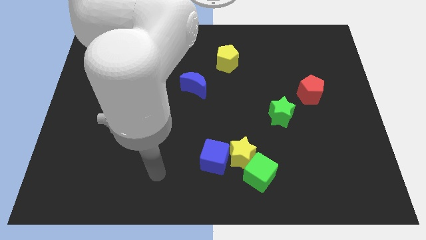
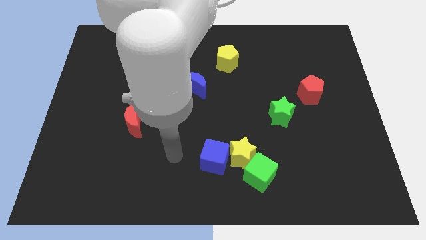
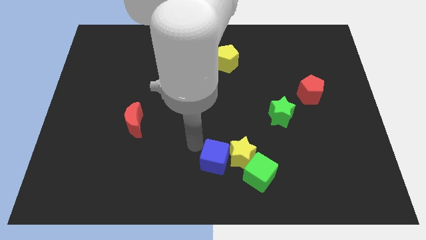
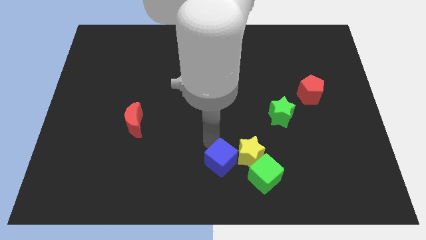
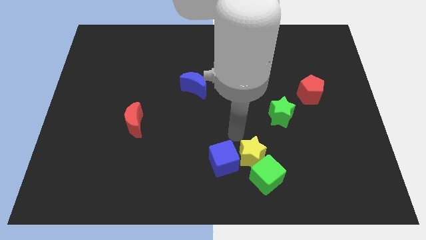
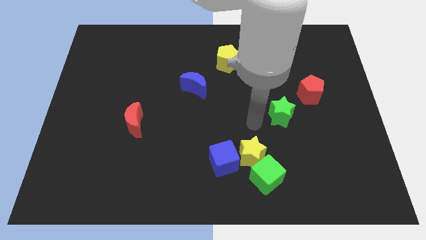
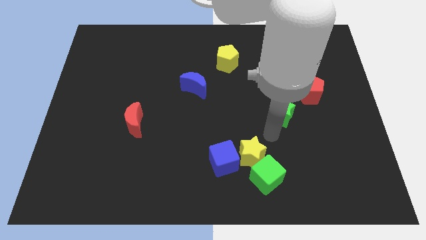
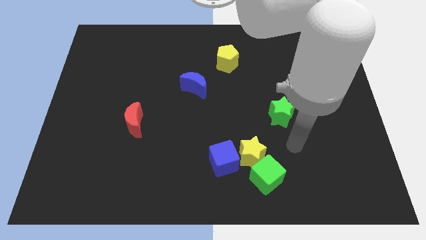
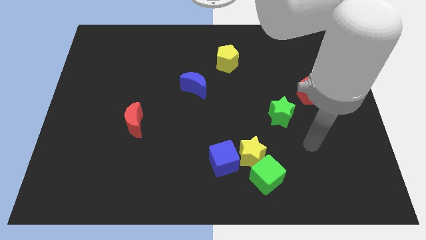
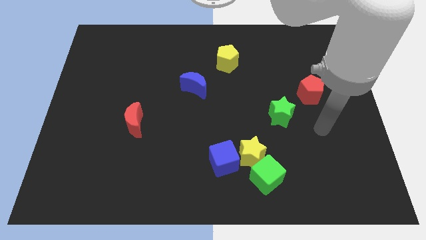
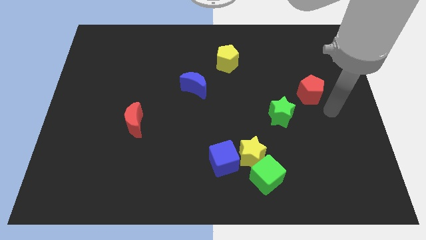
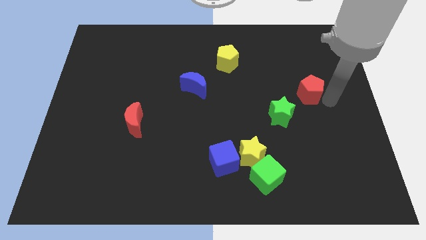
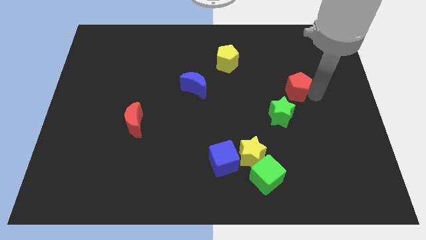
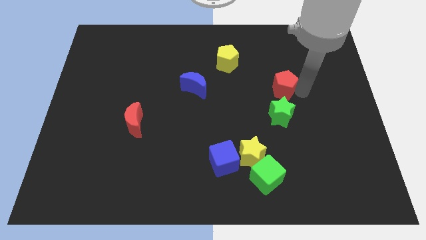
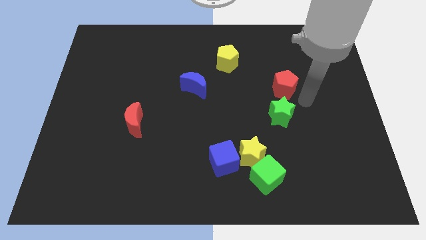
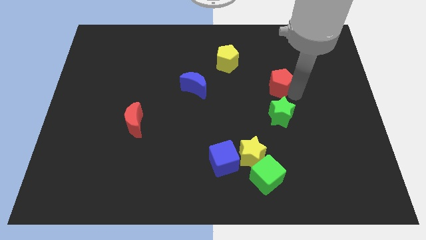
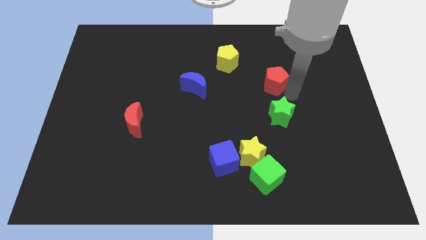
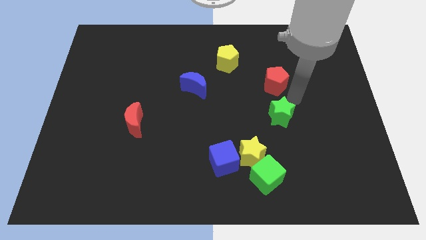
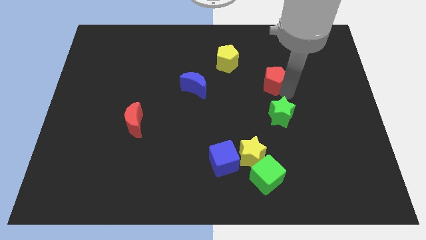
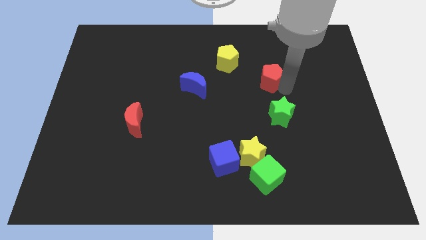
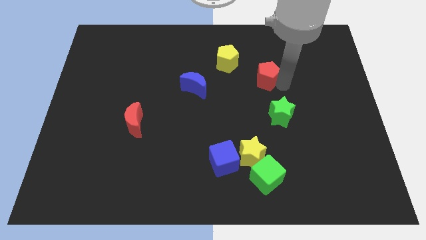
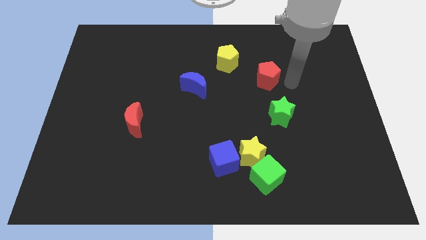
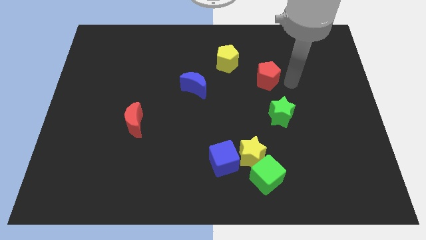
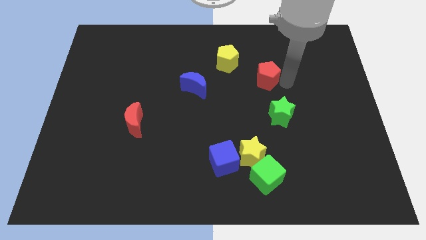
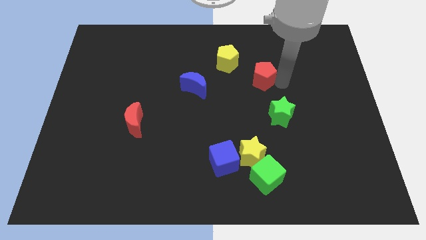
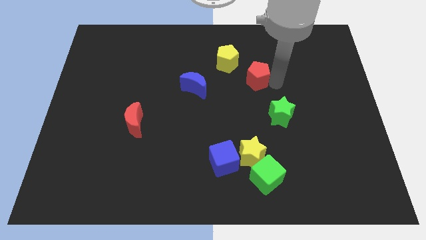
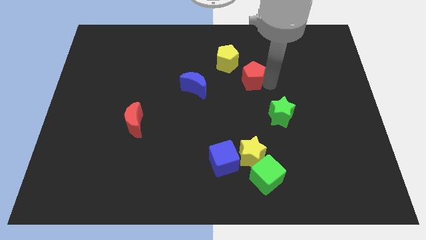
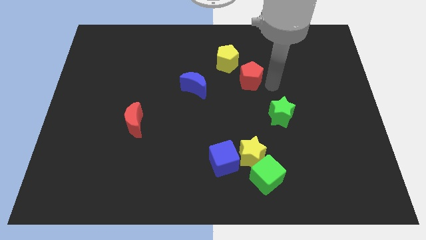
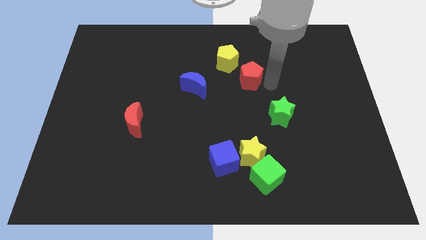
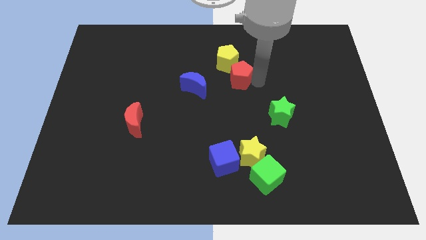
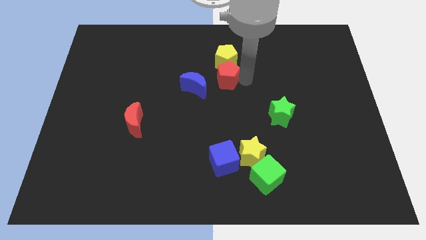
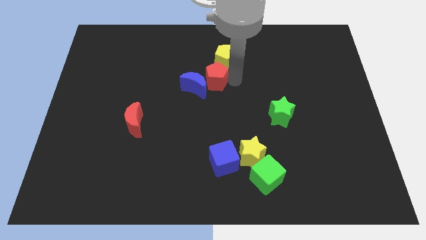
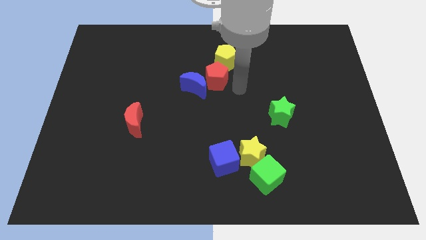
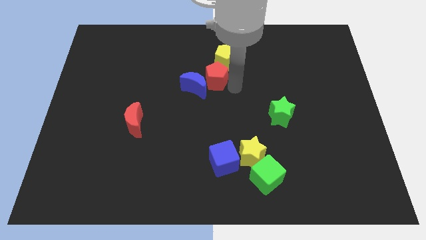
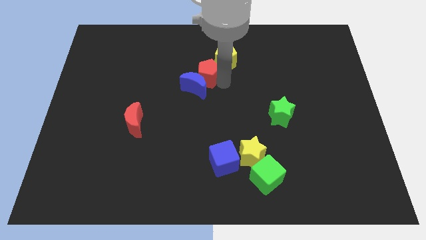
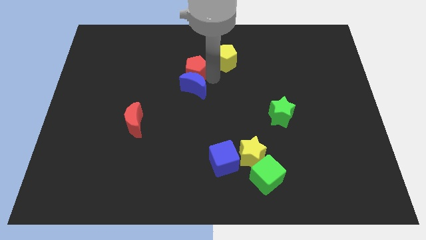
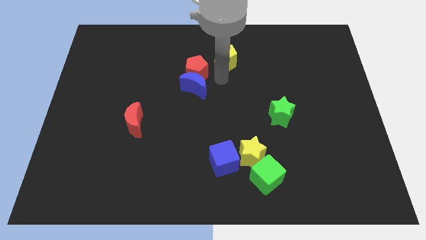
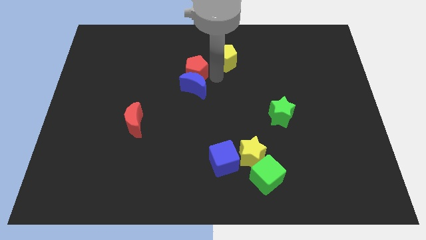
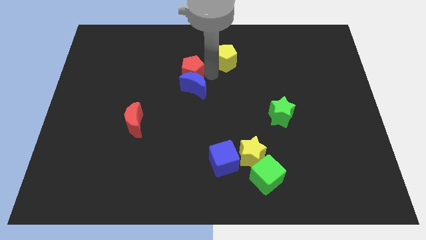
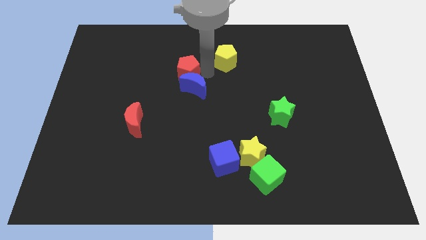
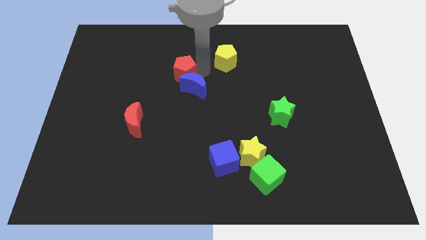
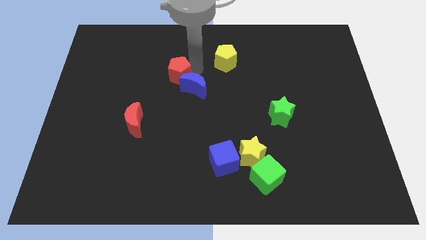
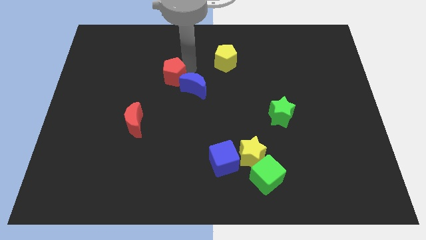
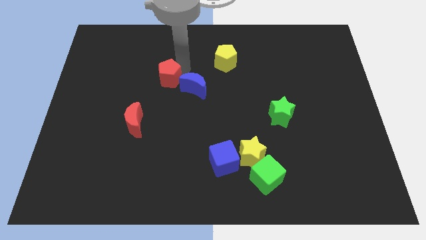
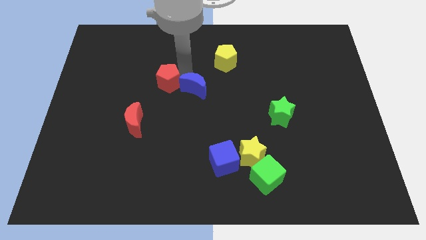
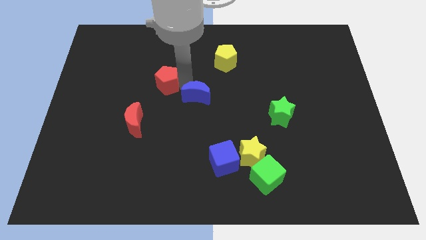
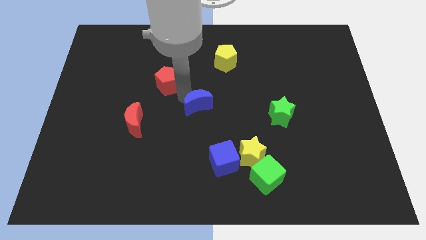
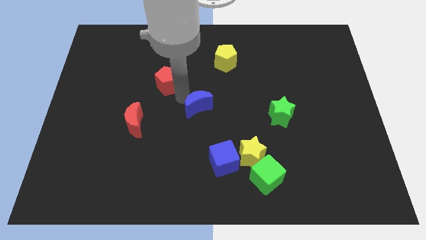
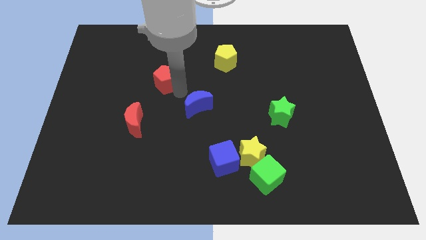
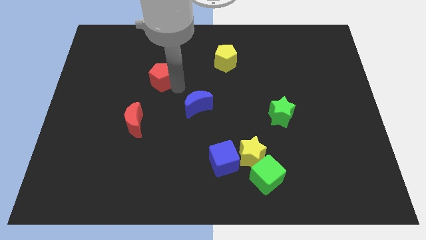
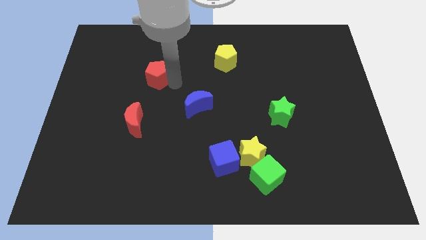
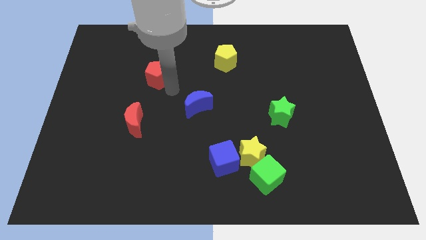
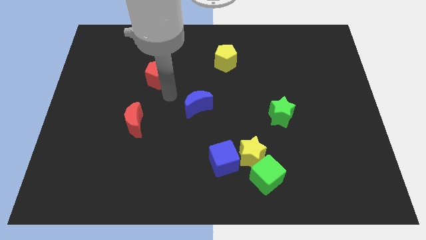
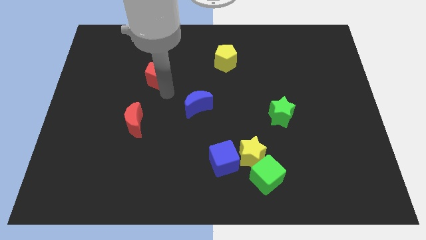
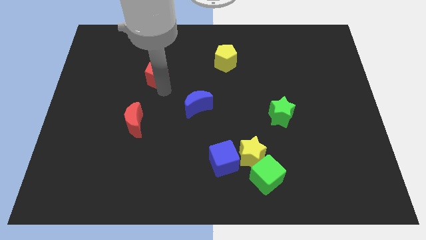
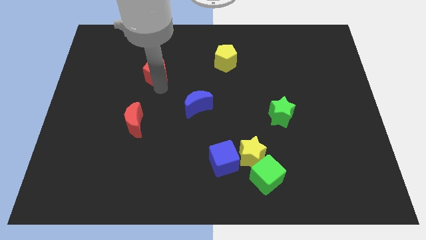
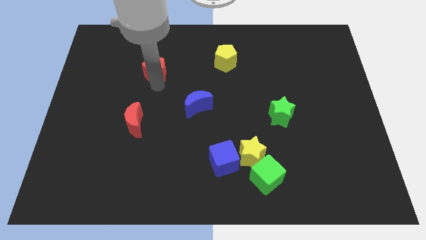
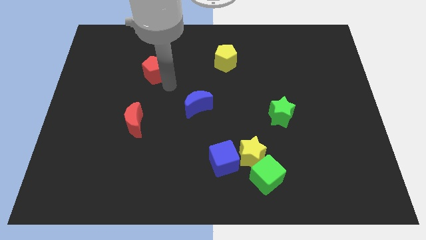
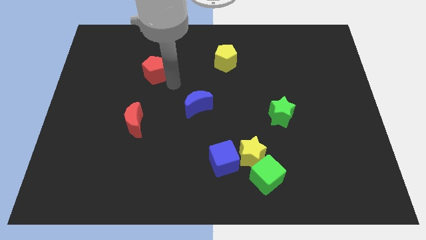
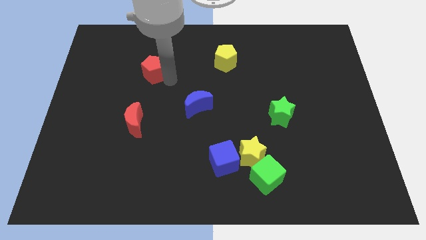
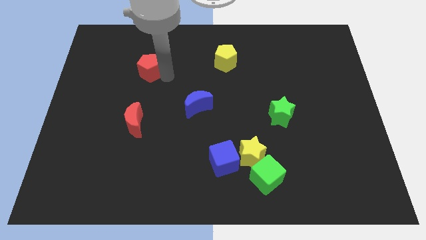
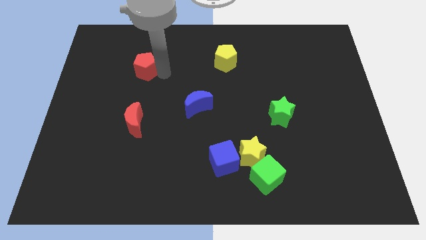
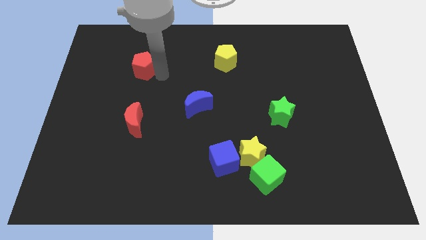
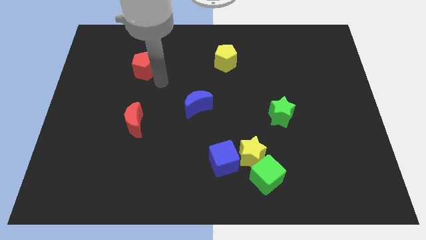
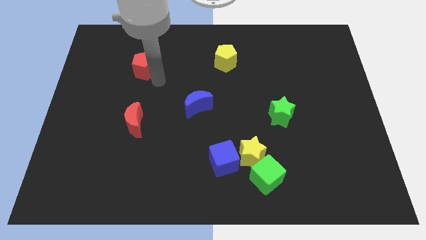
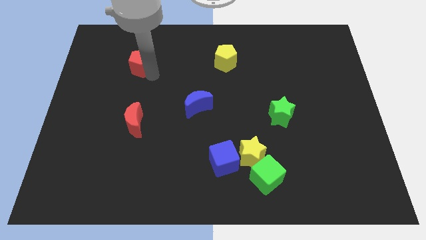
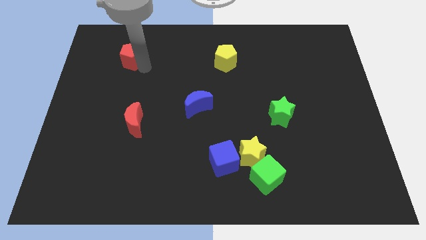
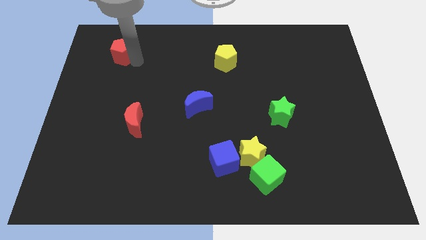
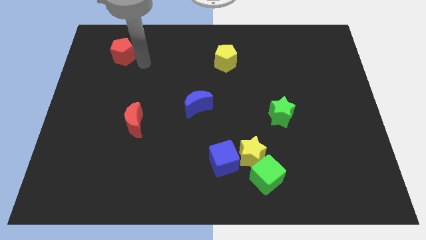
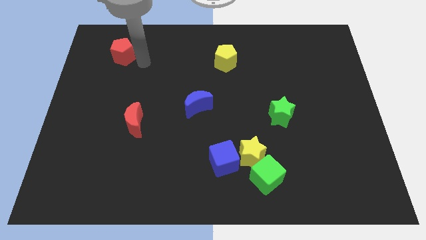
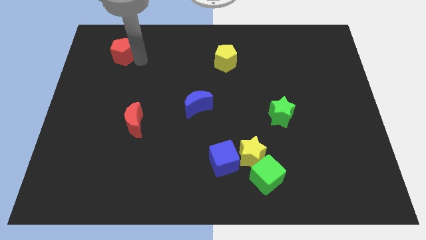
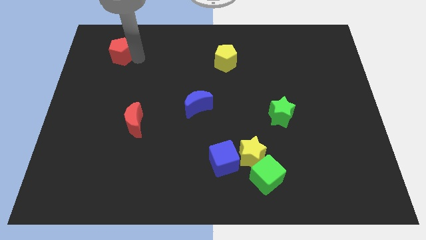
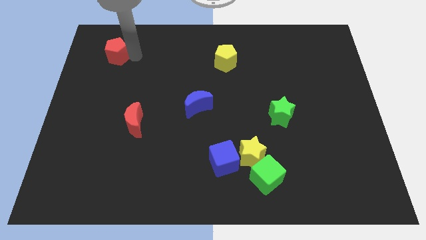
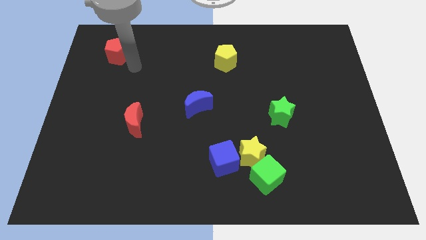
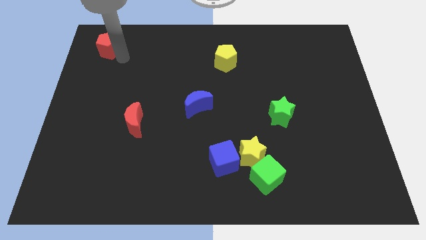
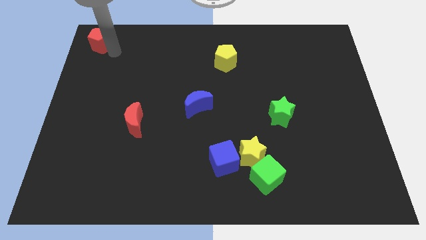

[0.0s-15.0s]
put the red pentagon to the top left corner
